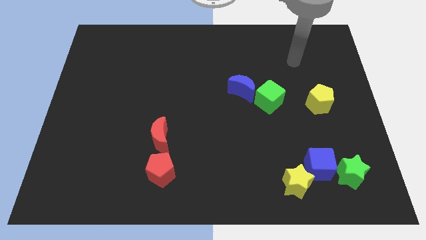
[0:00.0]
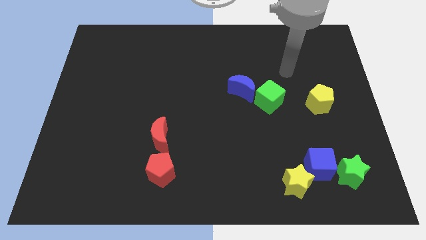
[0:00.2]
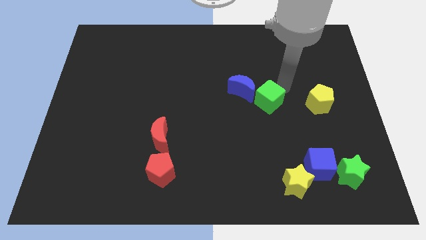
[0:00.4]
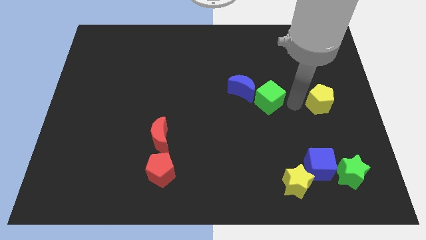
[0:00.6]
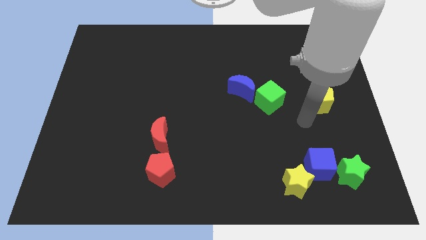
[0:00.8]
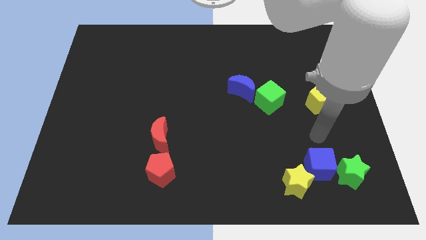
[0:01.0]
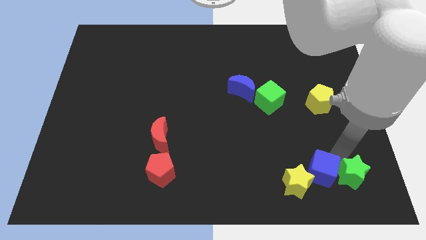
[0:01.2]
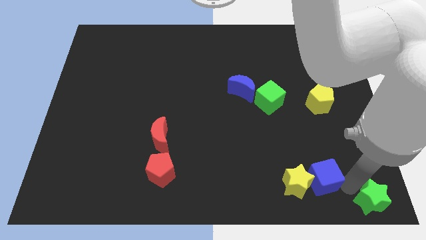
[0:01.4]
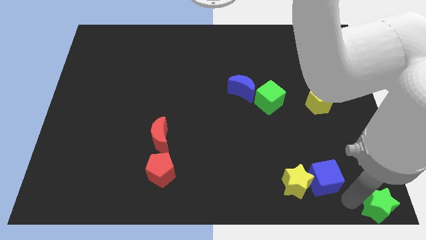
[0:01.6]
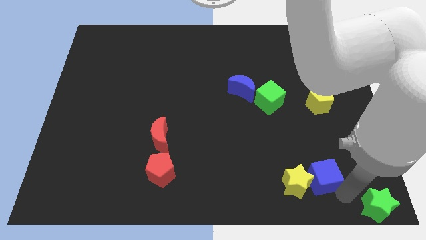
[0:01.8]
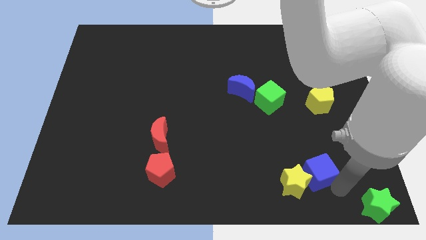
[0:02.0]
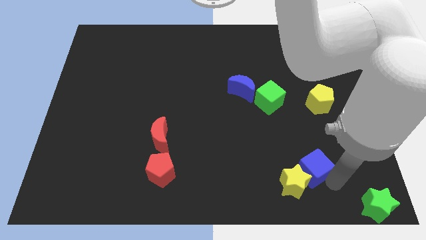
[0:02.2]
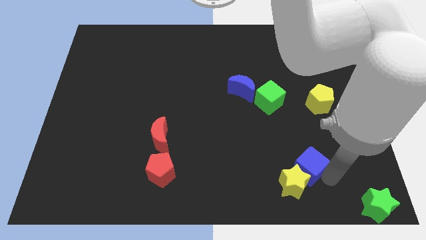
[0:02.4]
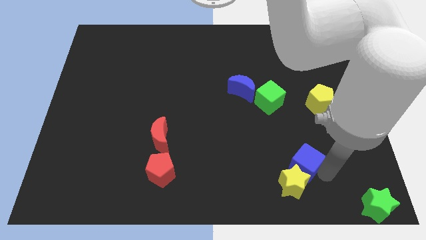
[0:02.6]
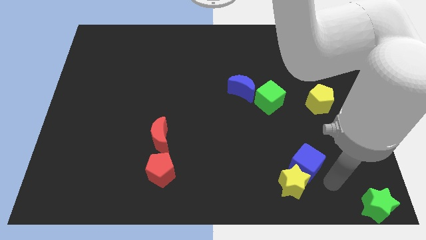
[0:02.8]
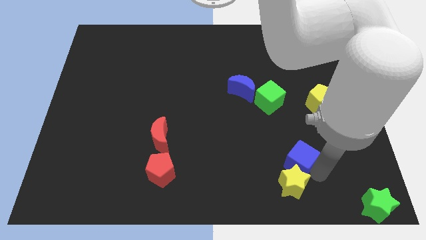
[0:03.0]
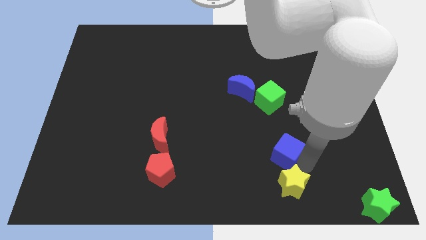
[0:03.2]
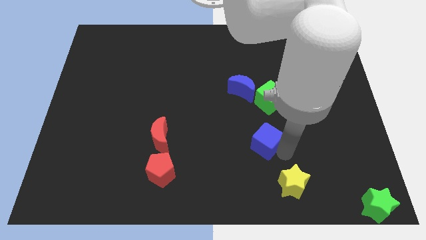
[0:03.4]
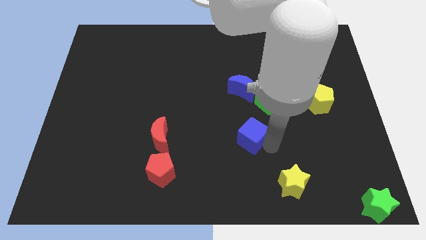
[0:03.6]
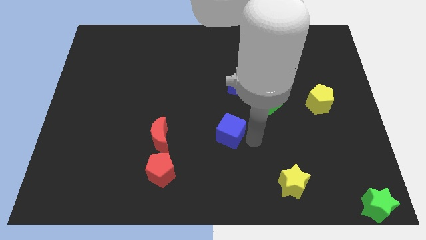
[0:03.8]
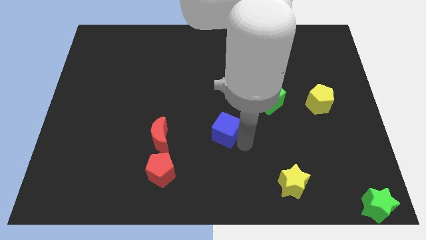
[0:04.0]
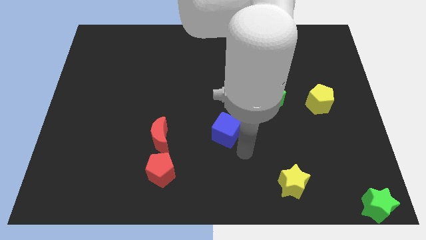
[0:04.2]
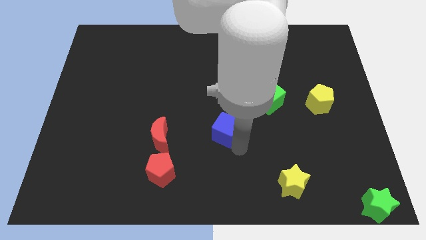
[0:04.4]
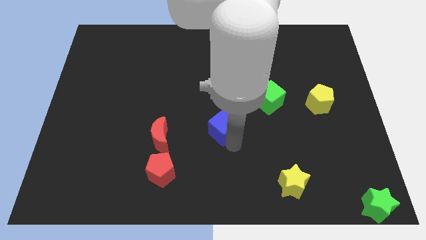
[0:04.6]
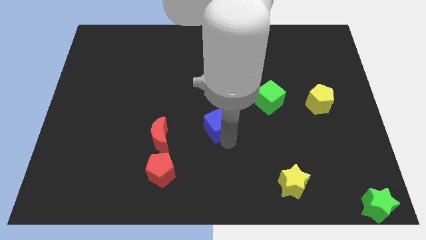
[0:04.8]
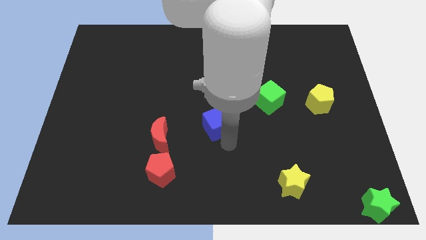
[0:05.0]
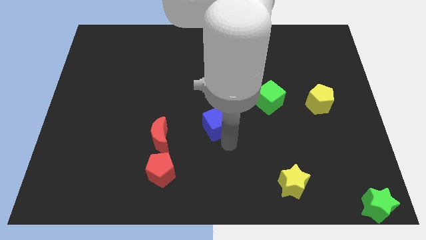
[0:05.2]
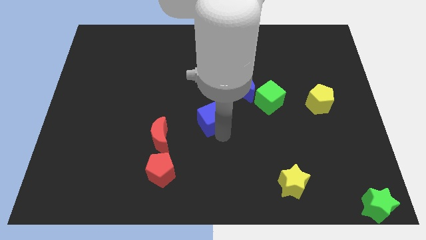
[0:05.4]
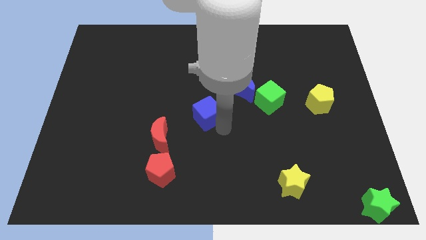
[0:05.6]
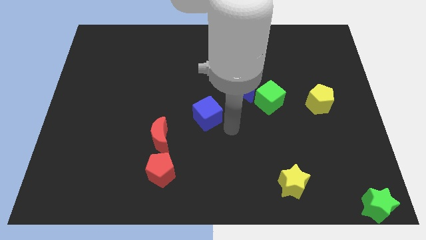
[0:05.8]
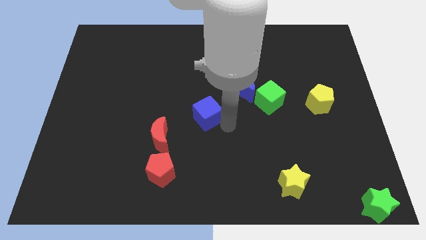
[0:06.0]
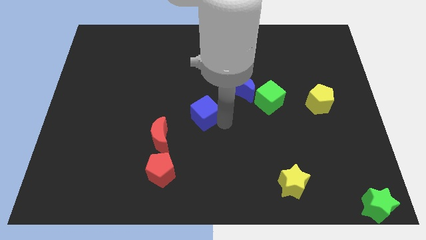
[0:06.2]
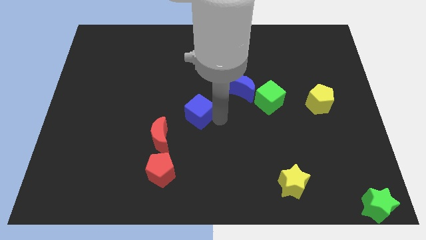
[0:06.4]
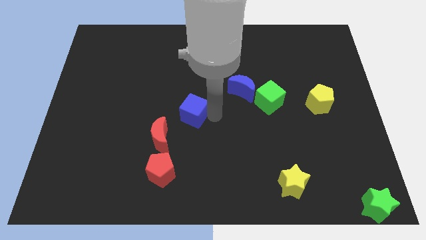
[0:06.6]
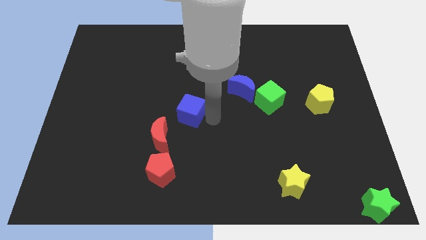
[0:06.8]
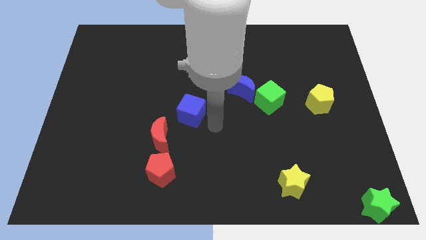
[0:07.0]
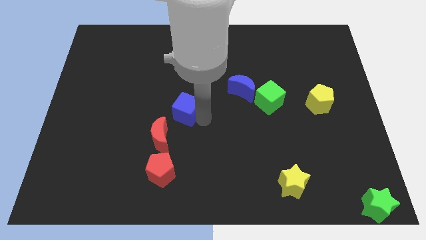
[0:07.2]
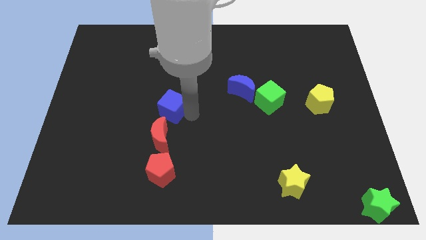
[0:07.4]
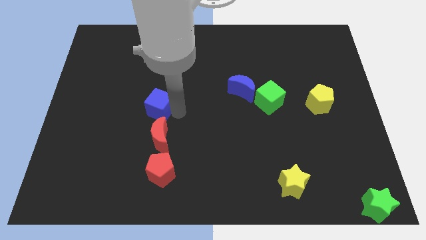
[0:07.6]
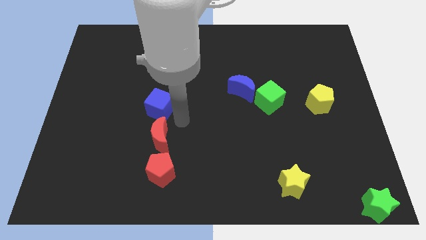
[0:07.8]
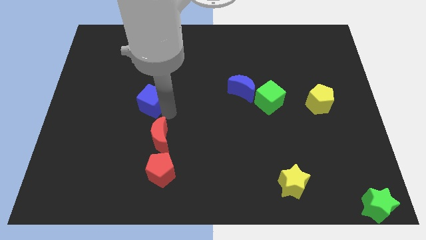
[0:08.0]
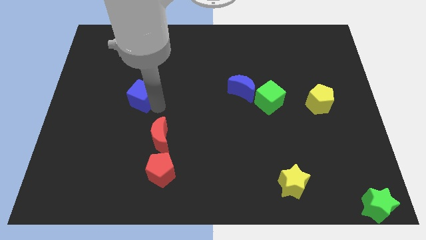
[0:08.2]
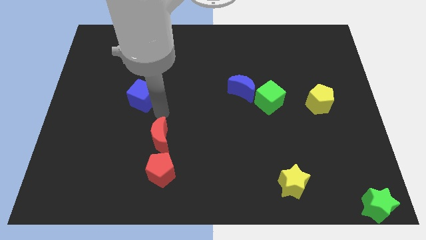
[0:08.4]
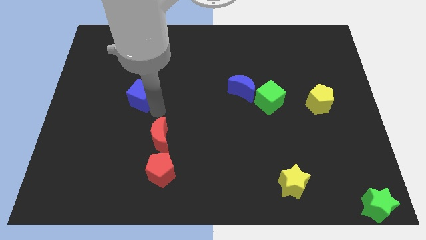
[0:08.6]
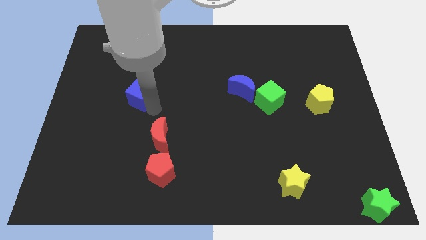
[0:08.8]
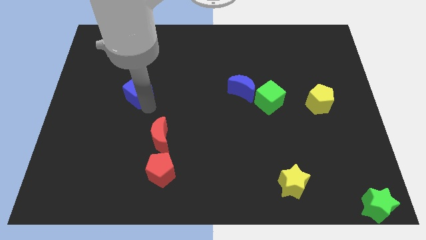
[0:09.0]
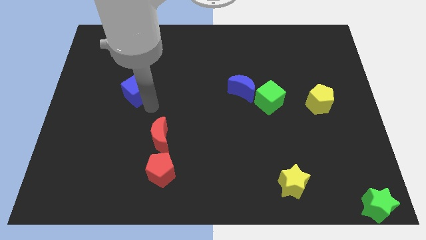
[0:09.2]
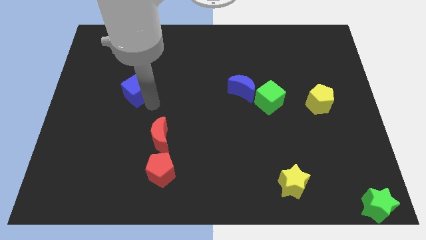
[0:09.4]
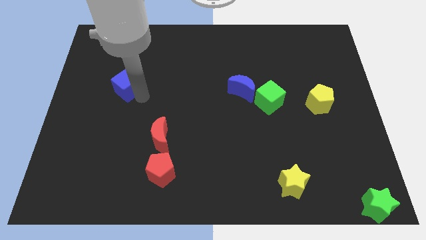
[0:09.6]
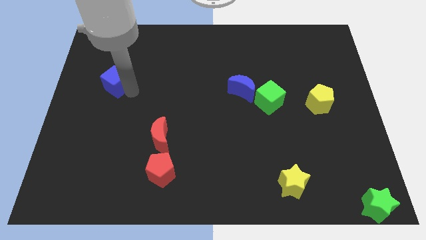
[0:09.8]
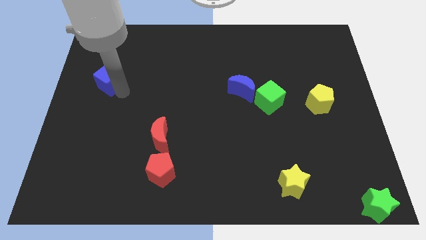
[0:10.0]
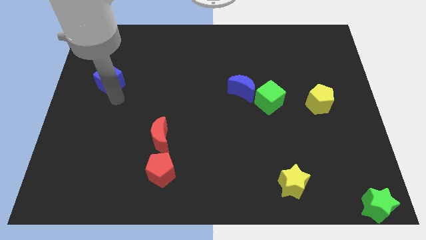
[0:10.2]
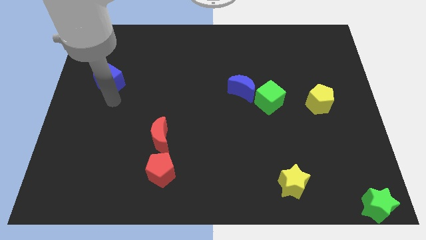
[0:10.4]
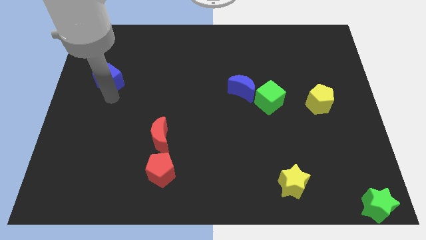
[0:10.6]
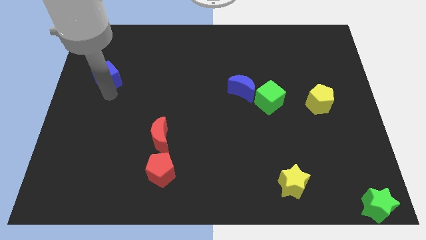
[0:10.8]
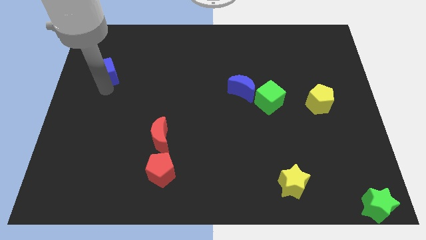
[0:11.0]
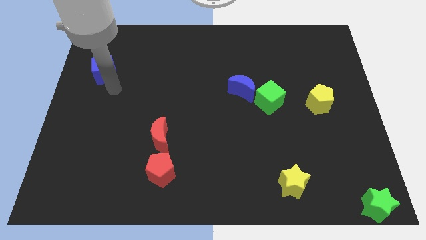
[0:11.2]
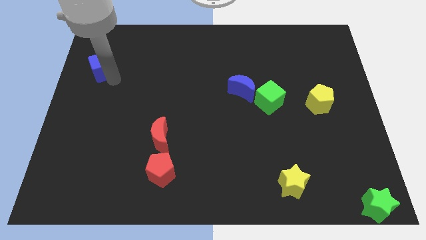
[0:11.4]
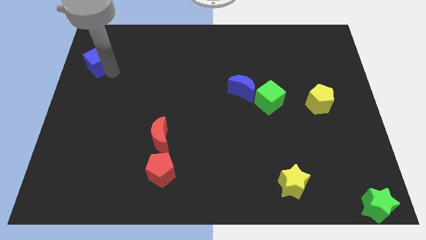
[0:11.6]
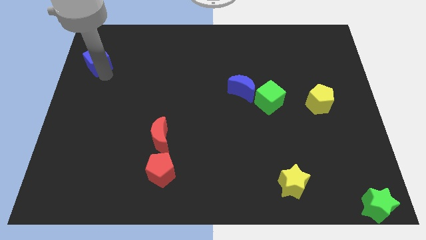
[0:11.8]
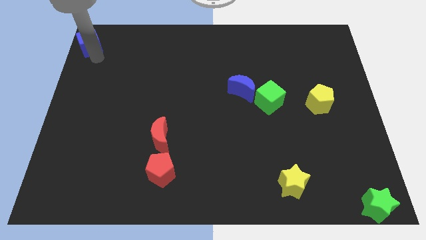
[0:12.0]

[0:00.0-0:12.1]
put the blue cube to the top left of the board
